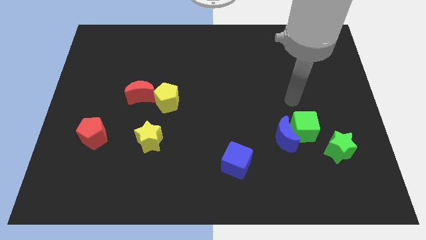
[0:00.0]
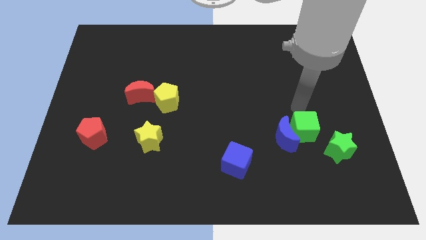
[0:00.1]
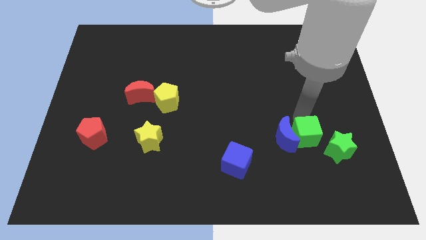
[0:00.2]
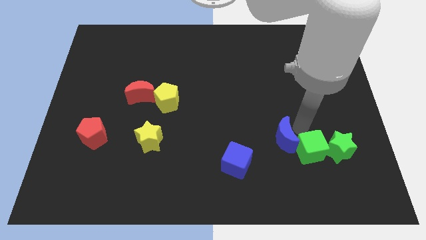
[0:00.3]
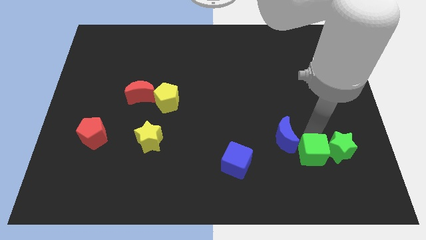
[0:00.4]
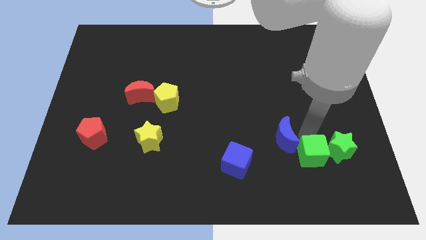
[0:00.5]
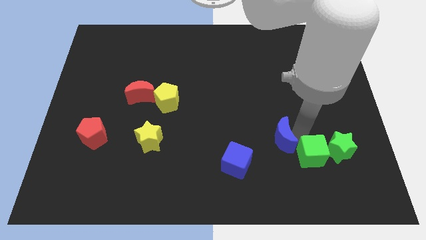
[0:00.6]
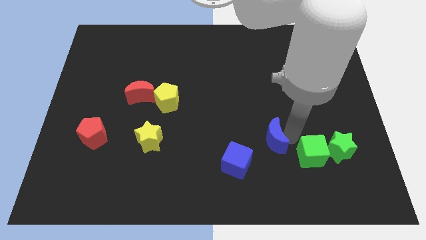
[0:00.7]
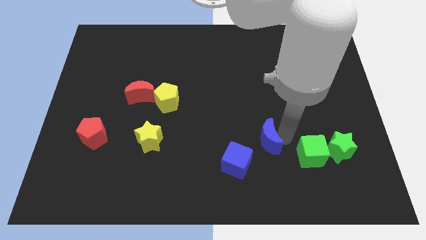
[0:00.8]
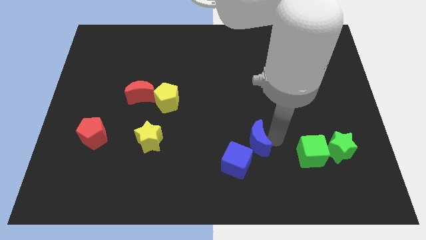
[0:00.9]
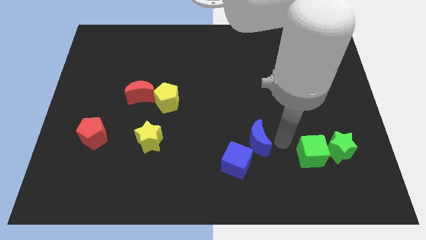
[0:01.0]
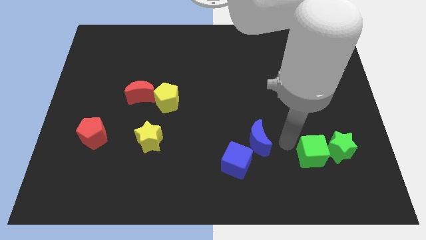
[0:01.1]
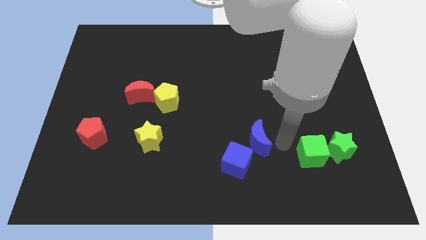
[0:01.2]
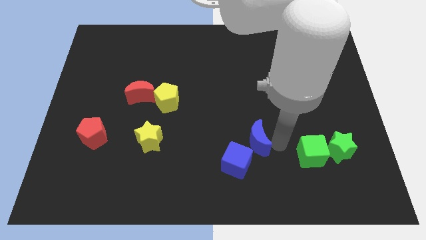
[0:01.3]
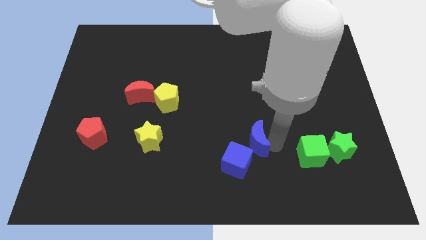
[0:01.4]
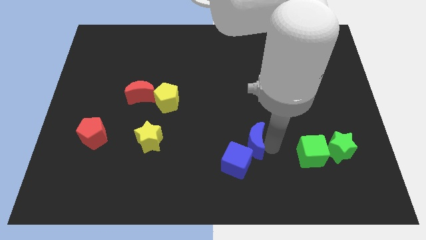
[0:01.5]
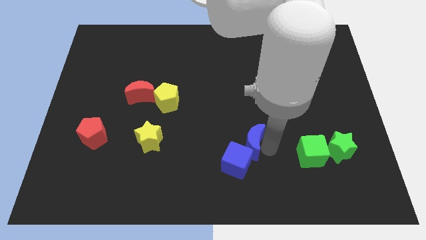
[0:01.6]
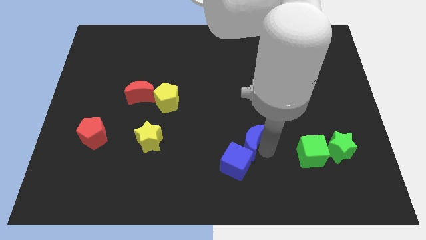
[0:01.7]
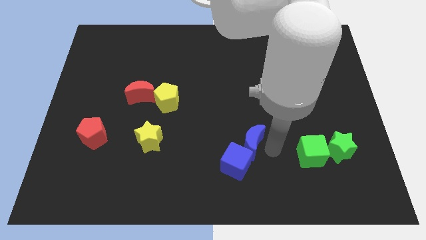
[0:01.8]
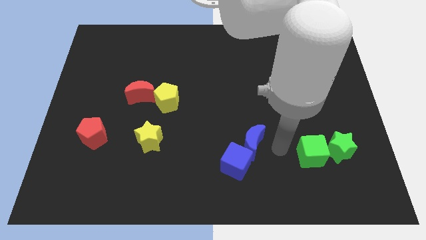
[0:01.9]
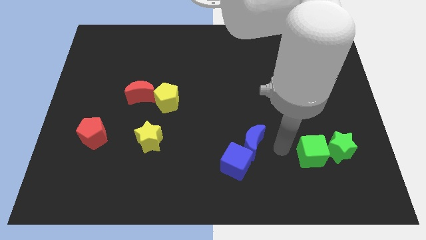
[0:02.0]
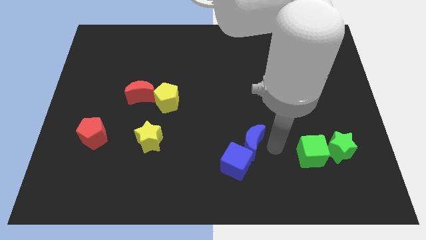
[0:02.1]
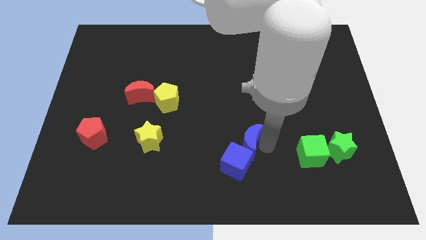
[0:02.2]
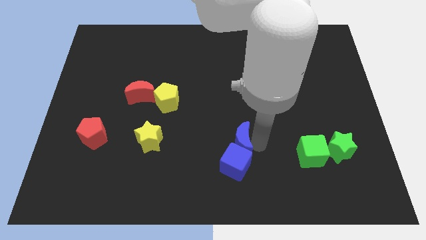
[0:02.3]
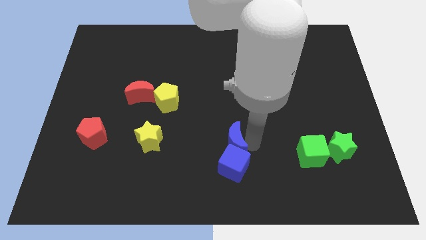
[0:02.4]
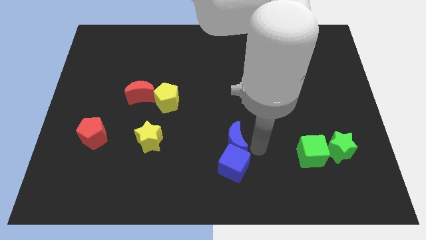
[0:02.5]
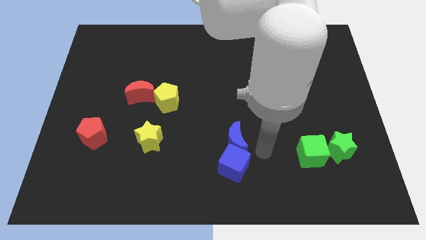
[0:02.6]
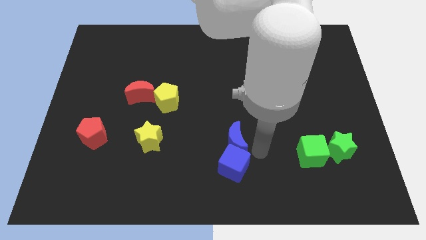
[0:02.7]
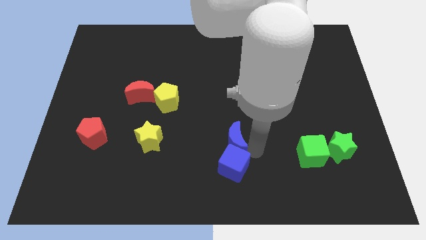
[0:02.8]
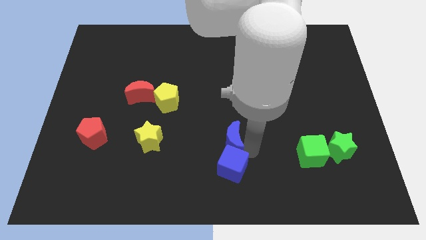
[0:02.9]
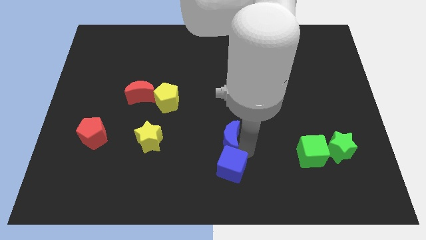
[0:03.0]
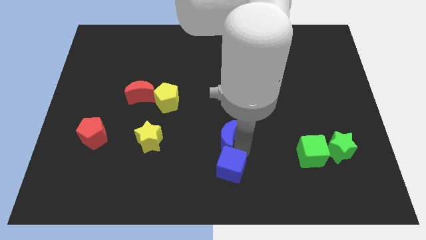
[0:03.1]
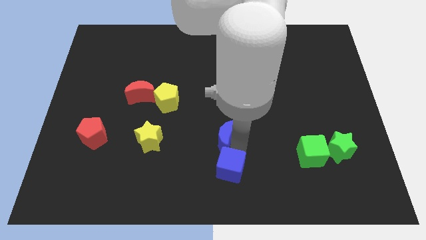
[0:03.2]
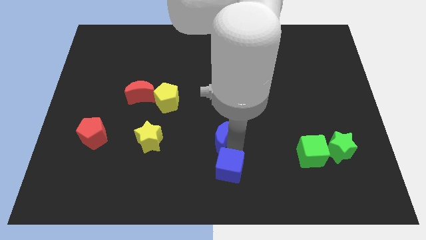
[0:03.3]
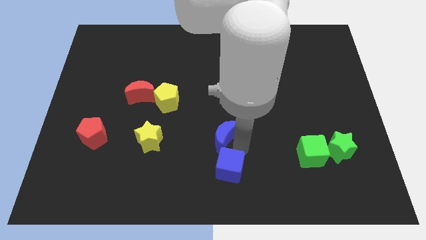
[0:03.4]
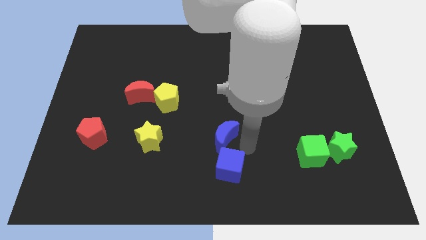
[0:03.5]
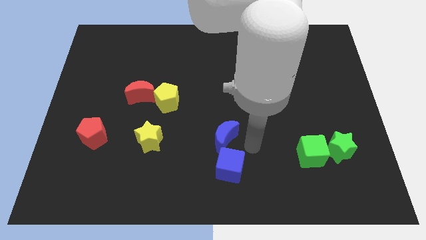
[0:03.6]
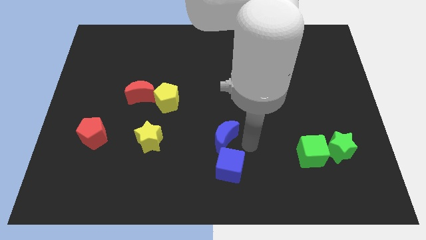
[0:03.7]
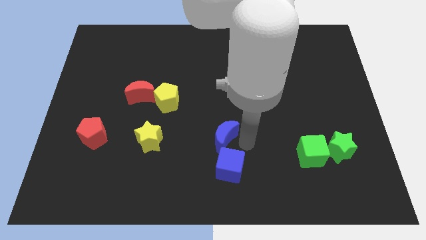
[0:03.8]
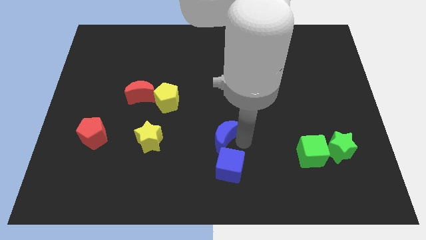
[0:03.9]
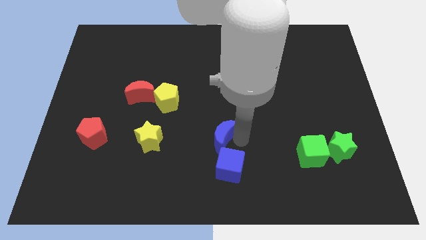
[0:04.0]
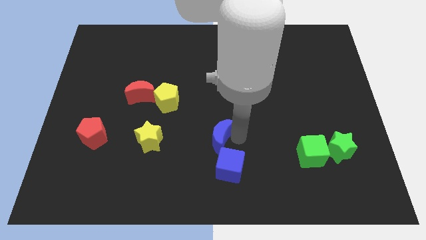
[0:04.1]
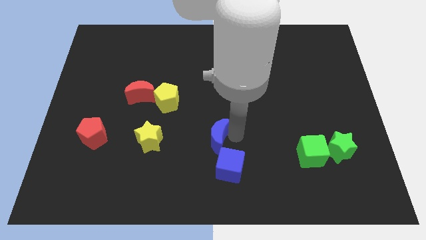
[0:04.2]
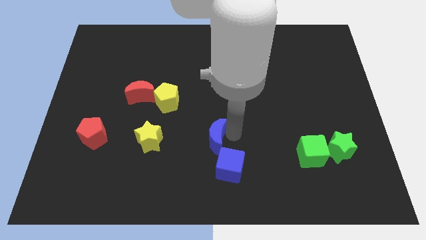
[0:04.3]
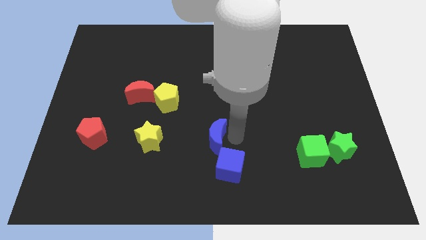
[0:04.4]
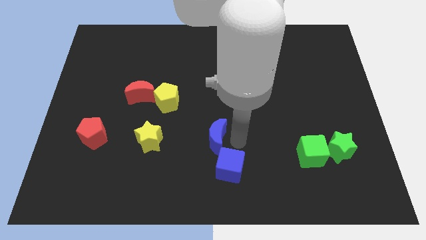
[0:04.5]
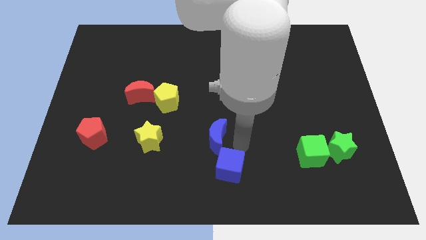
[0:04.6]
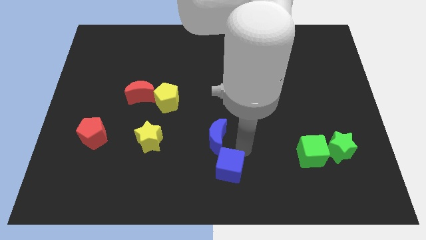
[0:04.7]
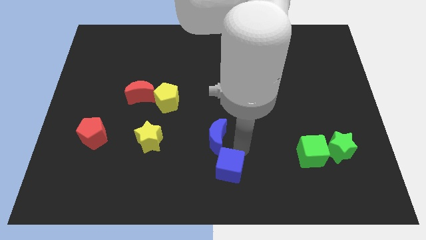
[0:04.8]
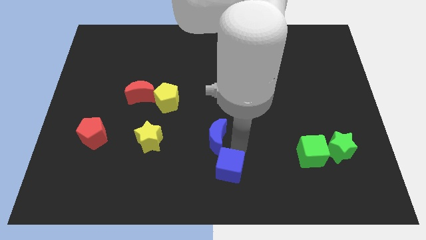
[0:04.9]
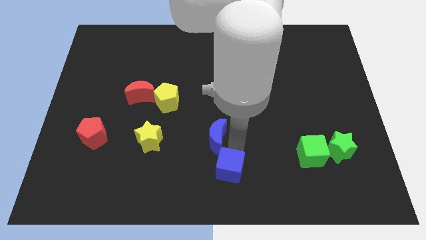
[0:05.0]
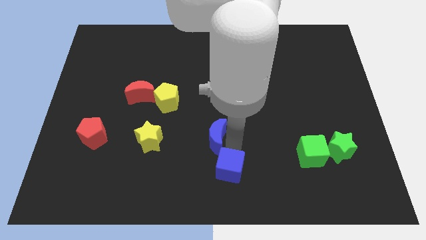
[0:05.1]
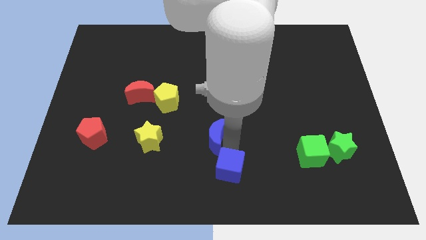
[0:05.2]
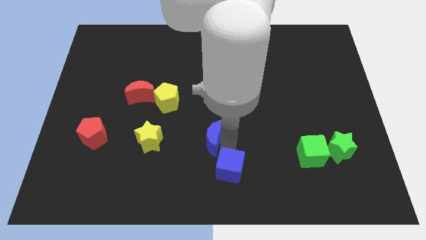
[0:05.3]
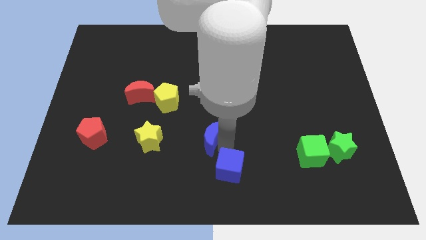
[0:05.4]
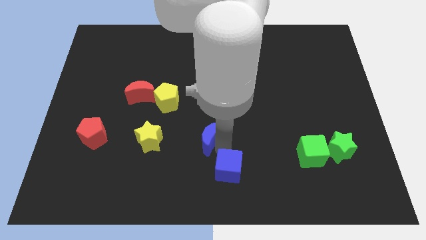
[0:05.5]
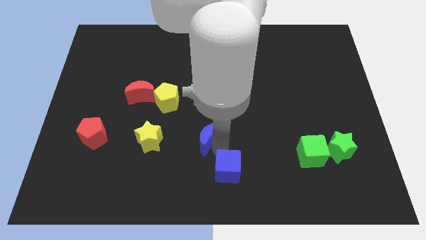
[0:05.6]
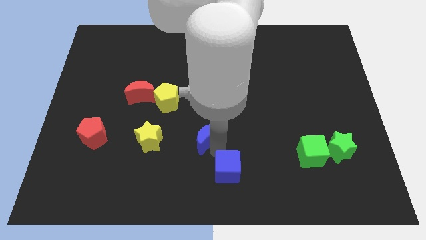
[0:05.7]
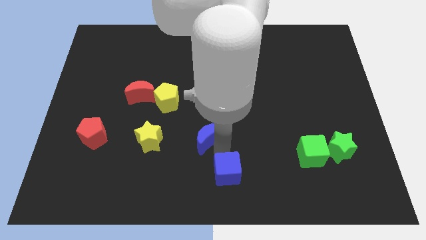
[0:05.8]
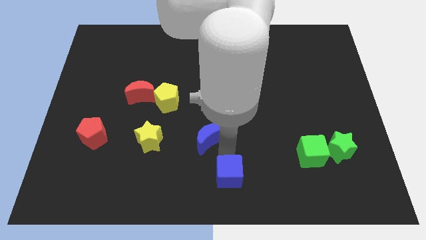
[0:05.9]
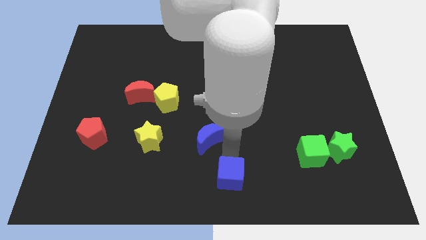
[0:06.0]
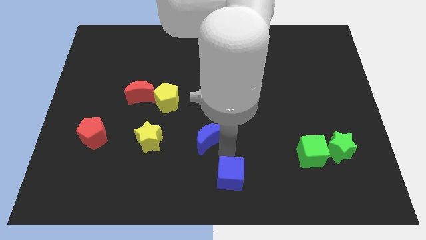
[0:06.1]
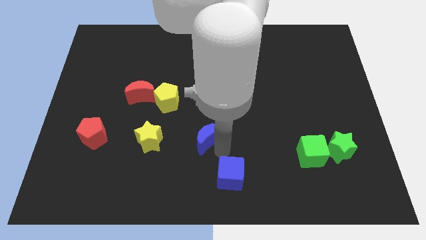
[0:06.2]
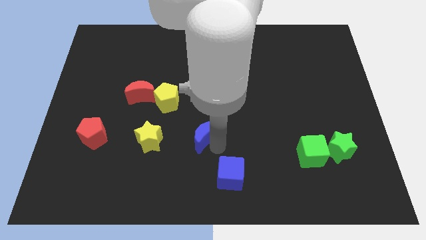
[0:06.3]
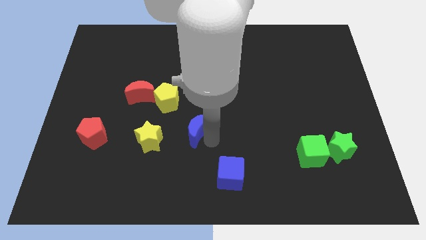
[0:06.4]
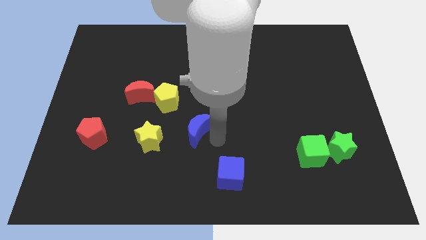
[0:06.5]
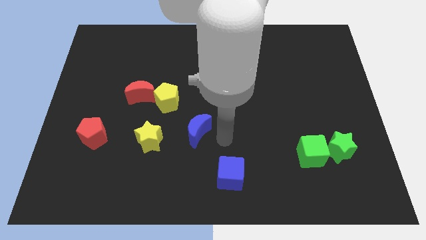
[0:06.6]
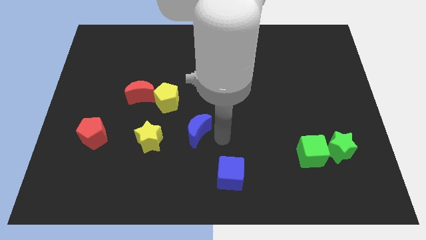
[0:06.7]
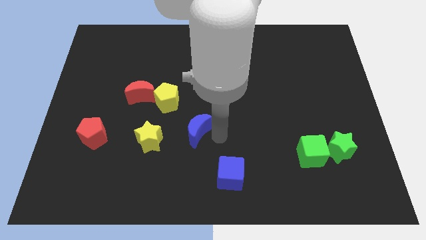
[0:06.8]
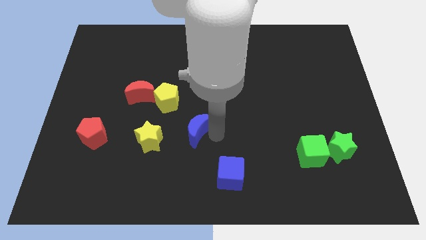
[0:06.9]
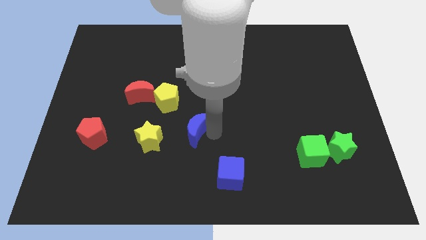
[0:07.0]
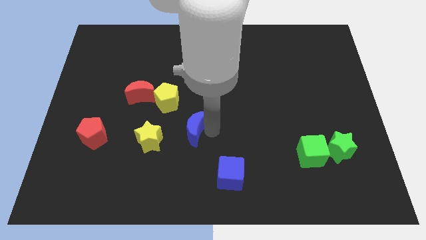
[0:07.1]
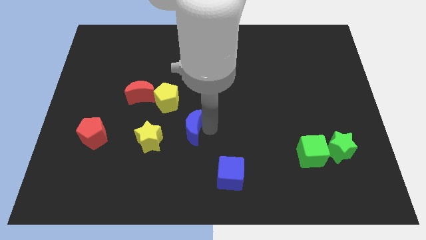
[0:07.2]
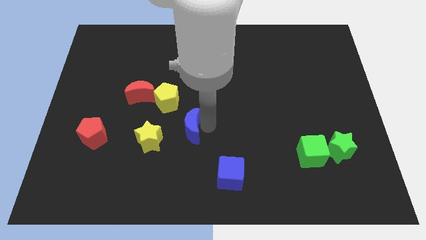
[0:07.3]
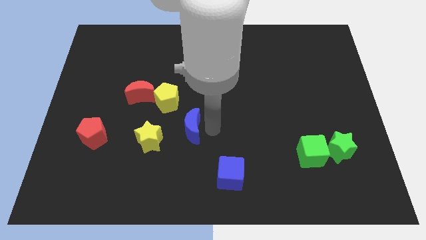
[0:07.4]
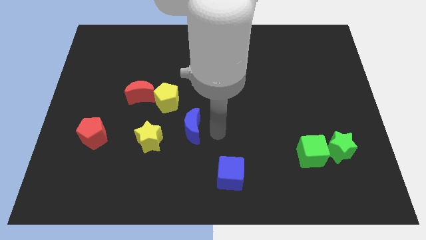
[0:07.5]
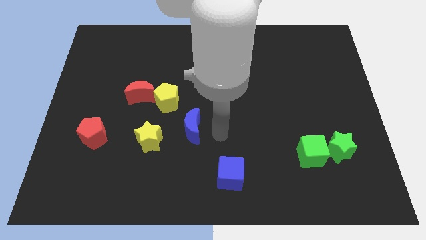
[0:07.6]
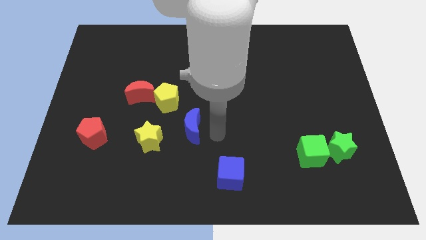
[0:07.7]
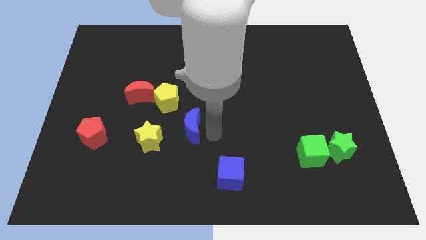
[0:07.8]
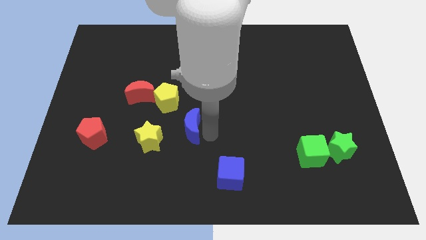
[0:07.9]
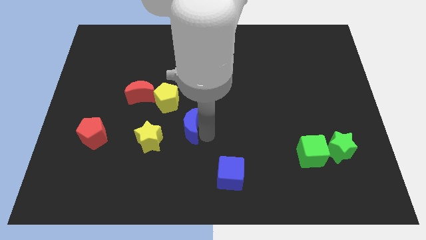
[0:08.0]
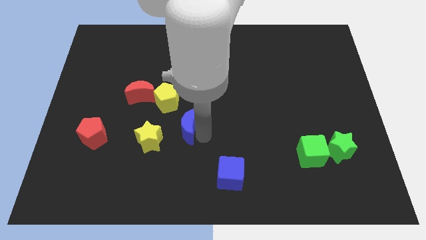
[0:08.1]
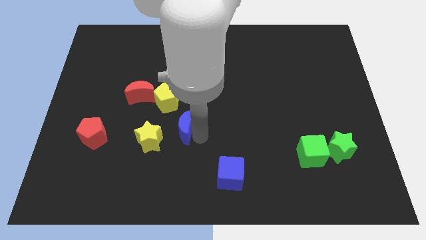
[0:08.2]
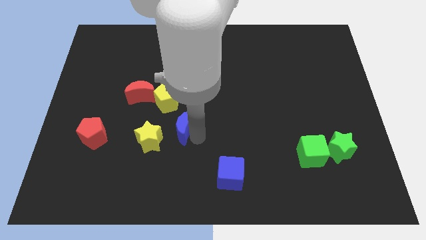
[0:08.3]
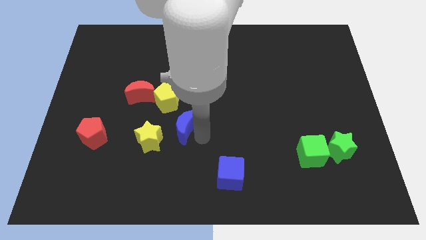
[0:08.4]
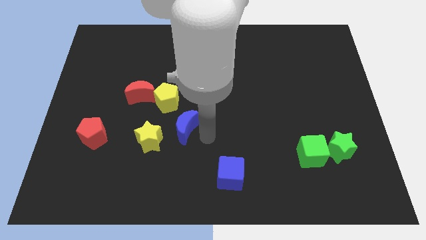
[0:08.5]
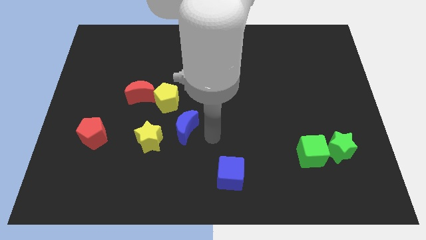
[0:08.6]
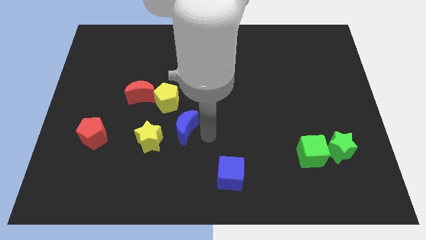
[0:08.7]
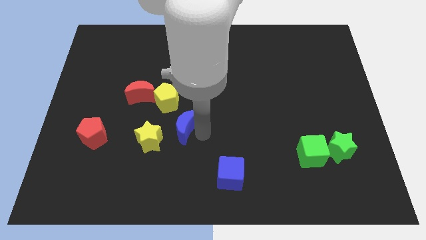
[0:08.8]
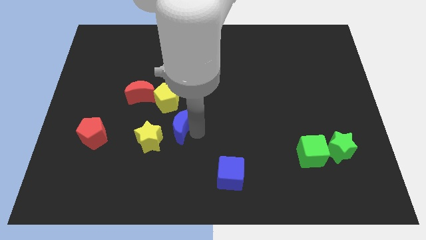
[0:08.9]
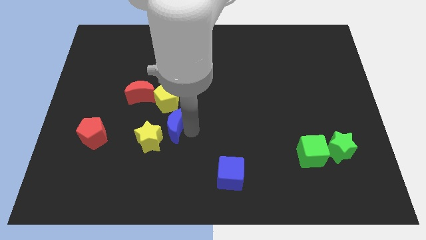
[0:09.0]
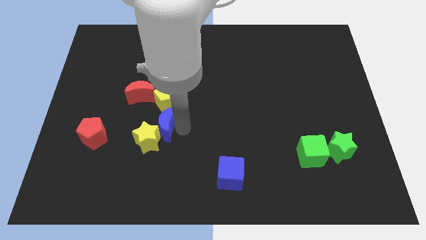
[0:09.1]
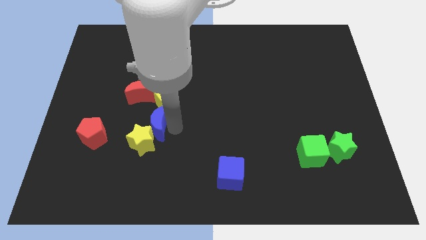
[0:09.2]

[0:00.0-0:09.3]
push the blue moon diagonally down and to the left of the yellow pentagon
